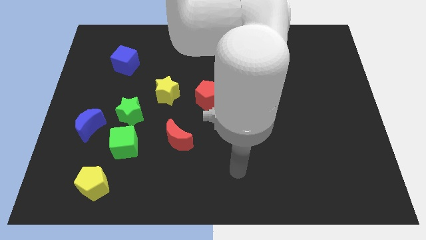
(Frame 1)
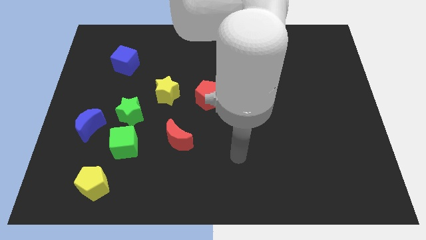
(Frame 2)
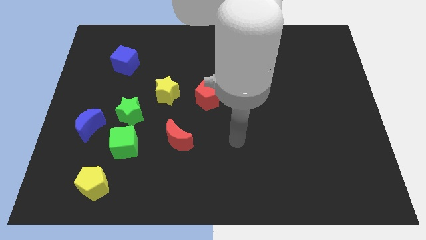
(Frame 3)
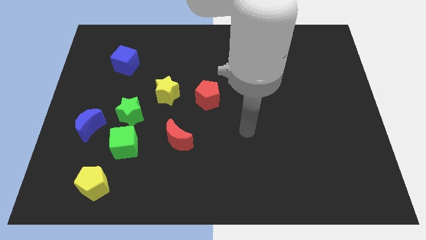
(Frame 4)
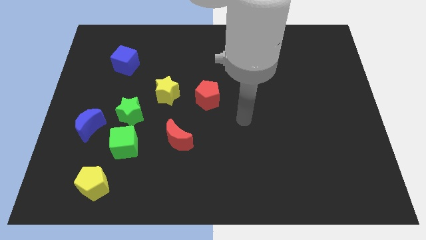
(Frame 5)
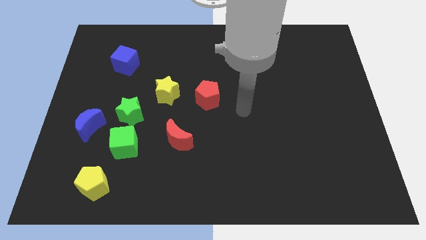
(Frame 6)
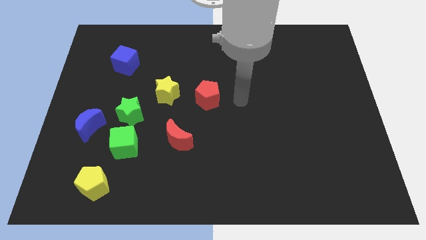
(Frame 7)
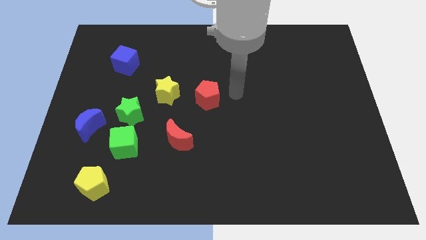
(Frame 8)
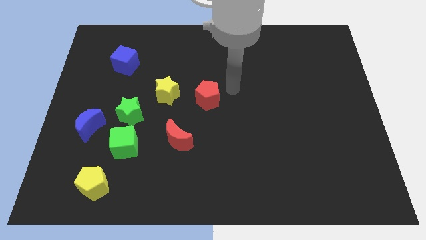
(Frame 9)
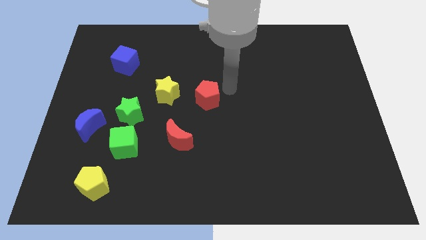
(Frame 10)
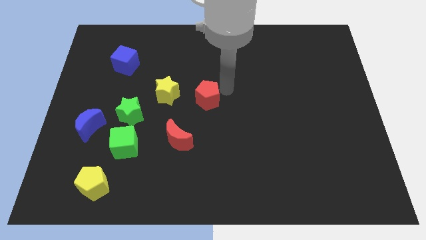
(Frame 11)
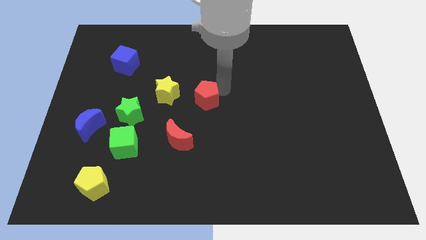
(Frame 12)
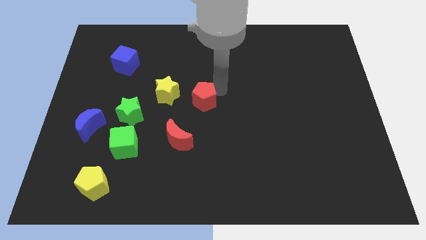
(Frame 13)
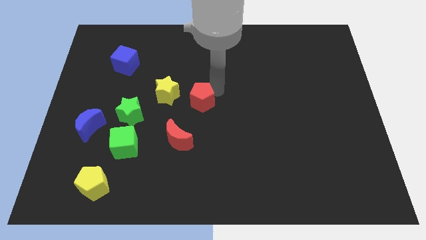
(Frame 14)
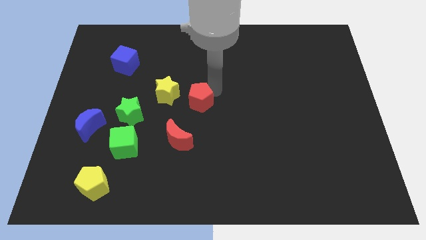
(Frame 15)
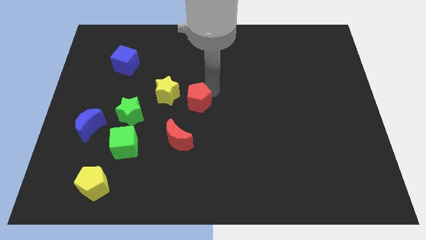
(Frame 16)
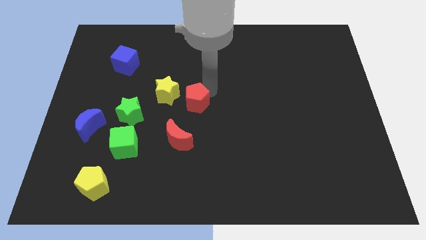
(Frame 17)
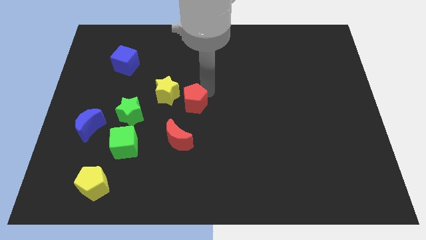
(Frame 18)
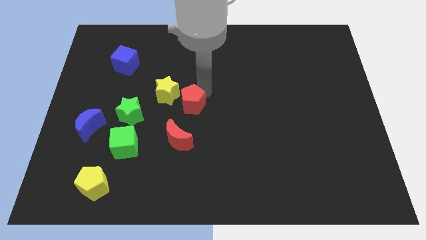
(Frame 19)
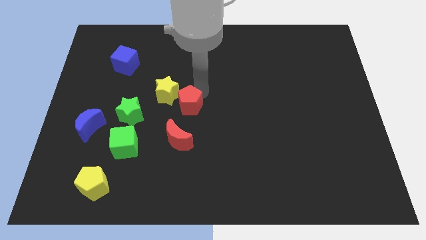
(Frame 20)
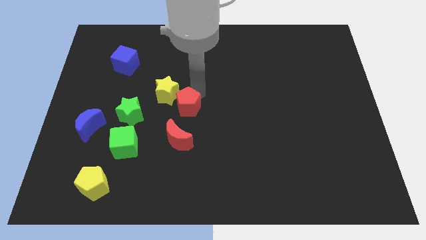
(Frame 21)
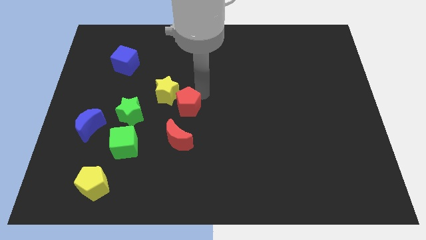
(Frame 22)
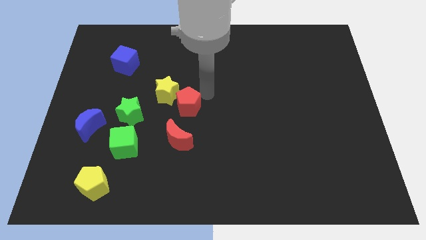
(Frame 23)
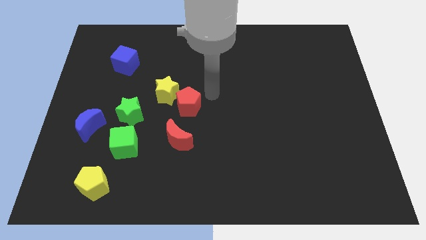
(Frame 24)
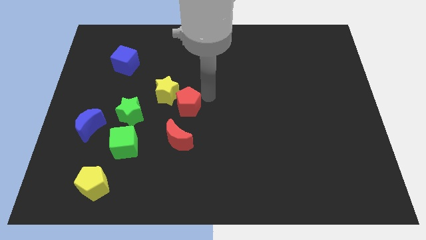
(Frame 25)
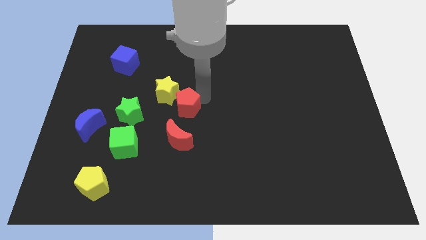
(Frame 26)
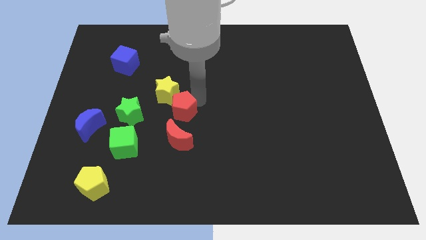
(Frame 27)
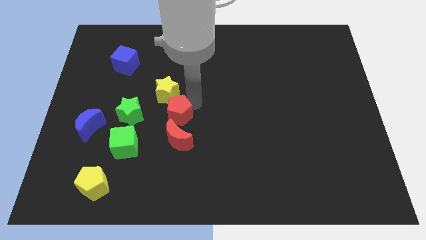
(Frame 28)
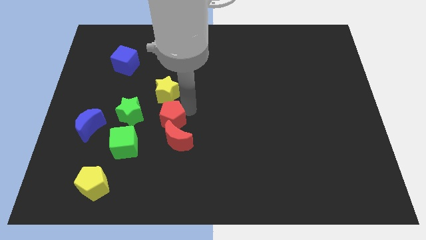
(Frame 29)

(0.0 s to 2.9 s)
move the red pentagon left slightly

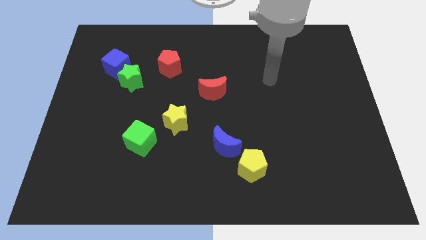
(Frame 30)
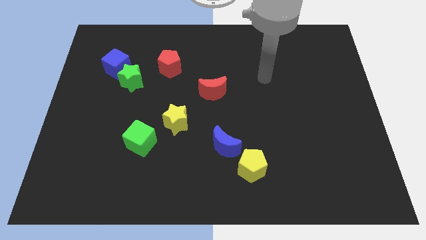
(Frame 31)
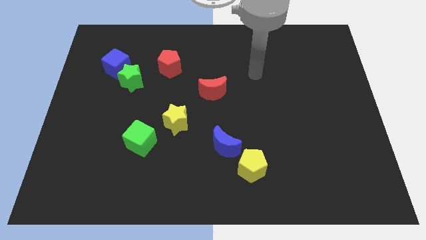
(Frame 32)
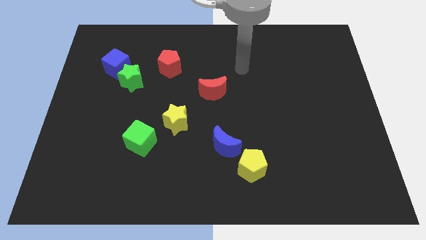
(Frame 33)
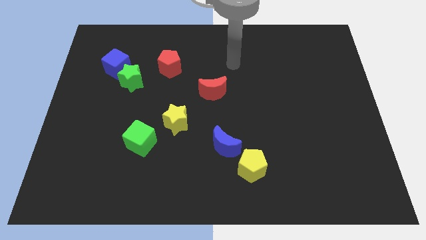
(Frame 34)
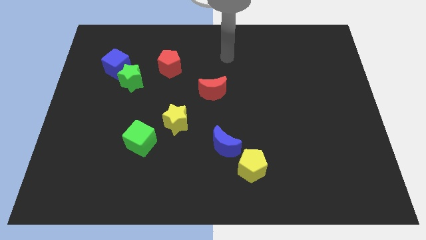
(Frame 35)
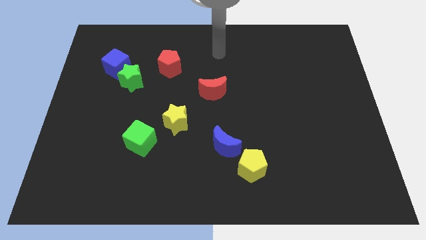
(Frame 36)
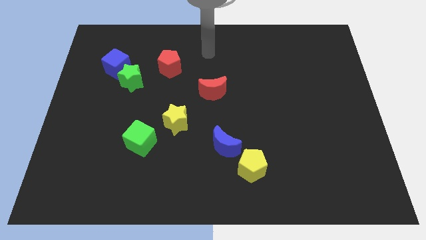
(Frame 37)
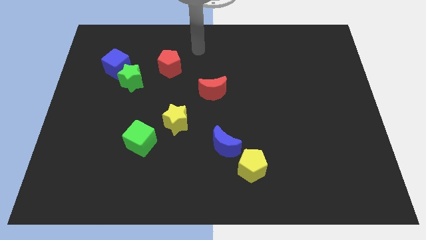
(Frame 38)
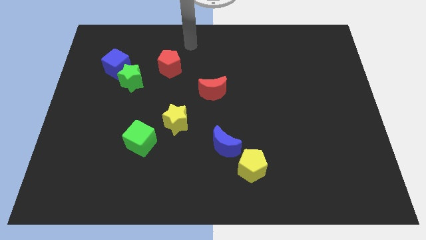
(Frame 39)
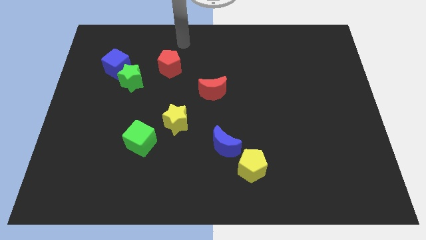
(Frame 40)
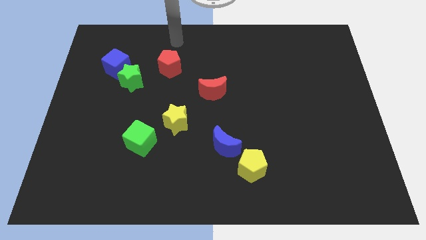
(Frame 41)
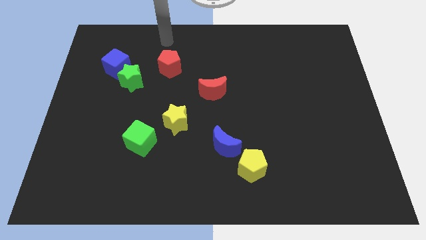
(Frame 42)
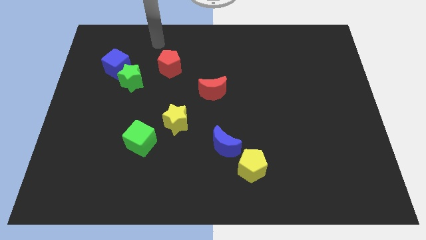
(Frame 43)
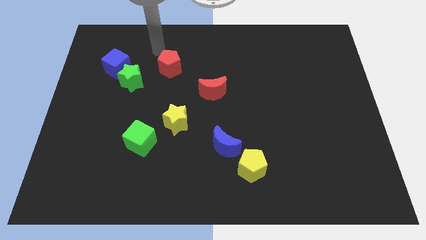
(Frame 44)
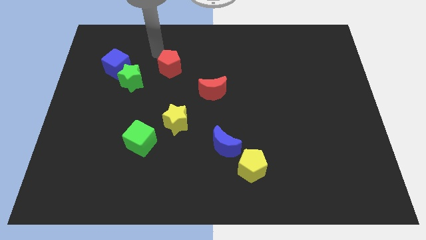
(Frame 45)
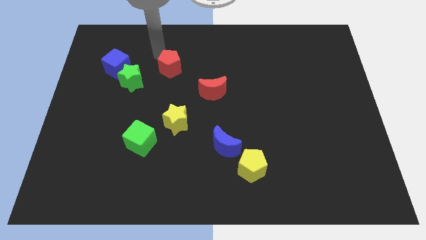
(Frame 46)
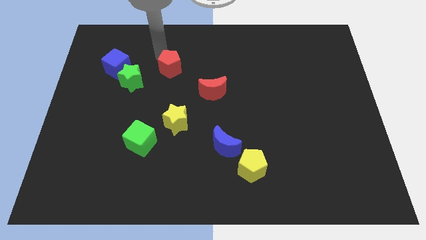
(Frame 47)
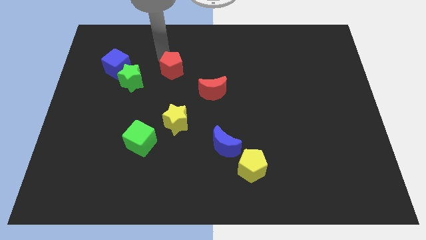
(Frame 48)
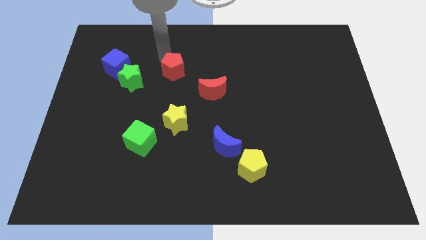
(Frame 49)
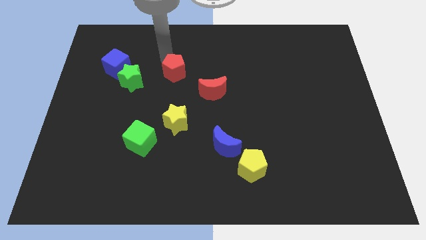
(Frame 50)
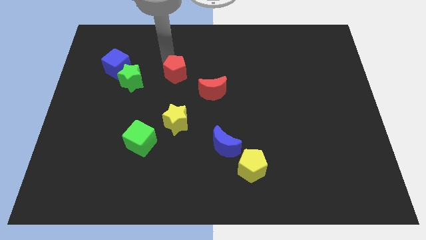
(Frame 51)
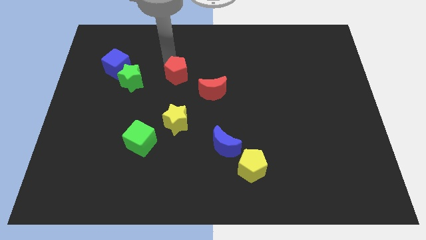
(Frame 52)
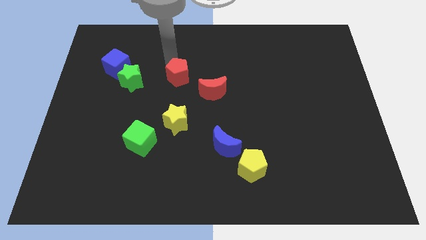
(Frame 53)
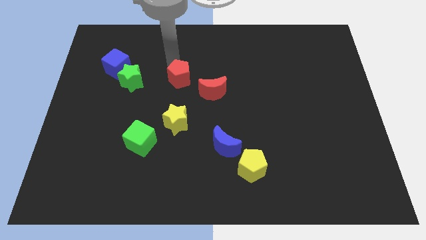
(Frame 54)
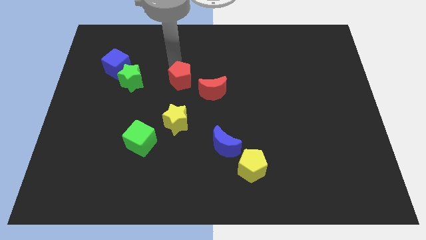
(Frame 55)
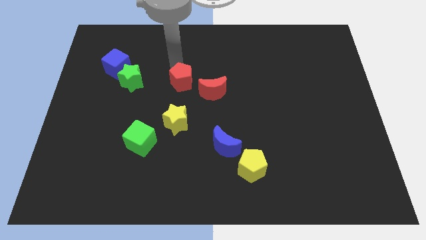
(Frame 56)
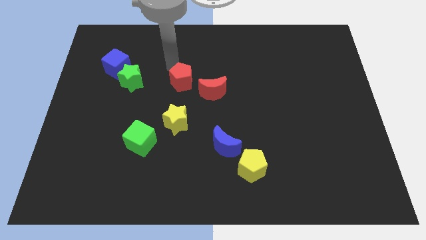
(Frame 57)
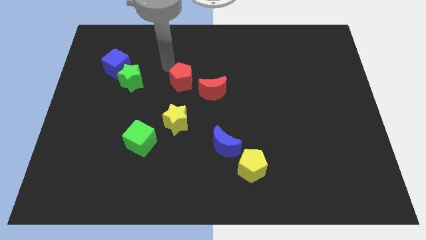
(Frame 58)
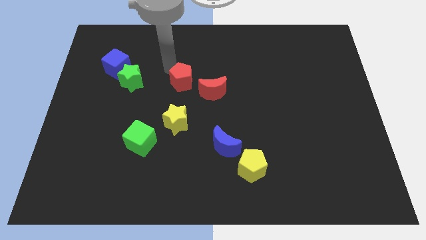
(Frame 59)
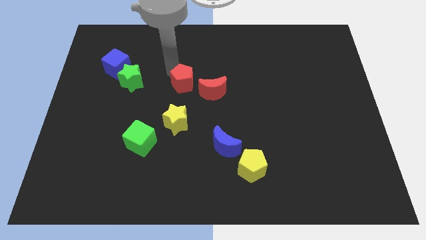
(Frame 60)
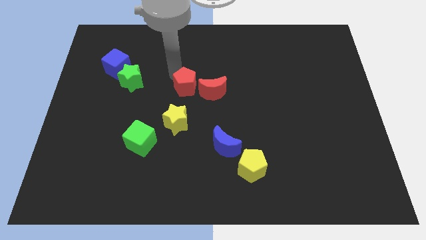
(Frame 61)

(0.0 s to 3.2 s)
slide the red pentagon a bit downwards and then to the right

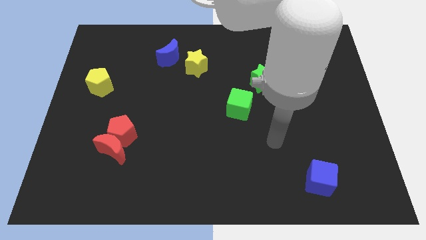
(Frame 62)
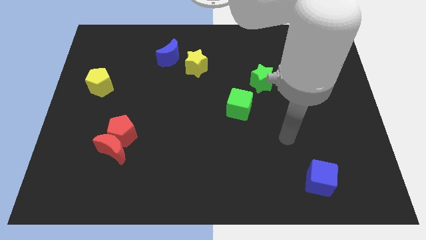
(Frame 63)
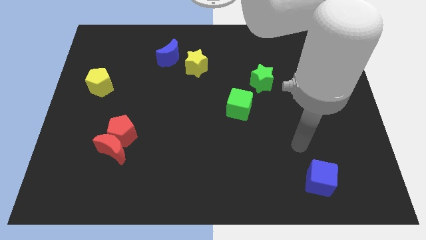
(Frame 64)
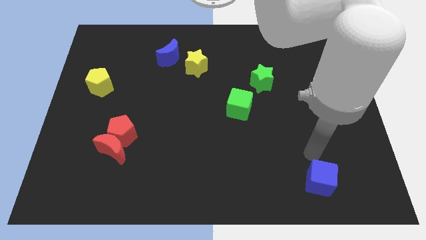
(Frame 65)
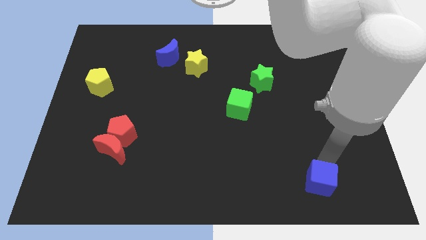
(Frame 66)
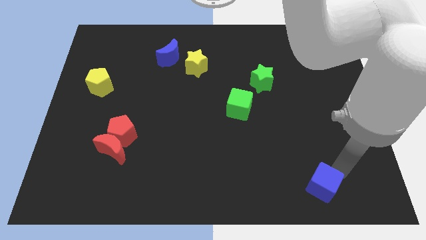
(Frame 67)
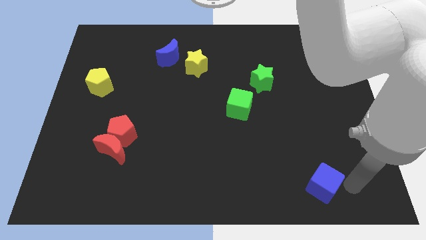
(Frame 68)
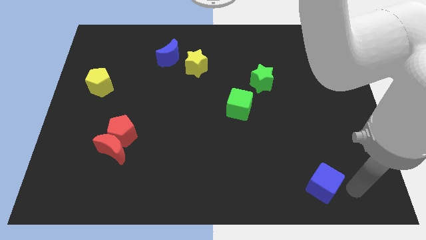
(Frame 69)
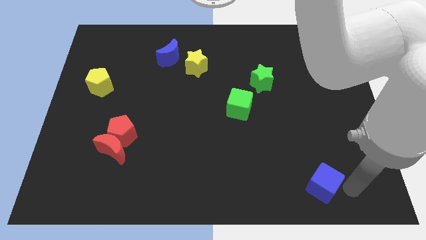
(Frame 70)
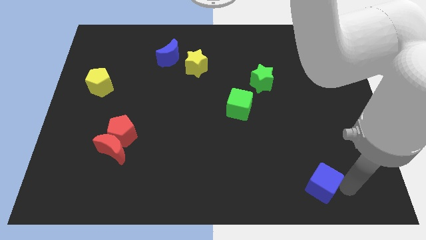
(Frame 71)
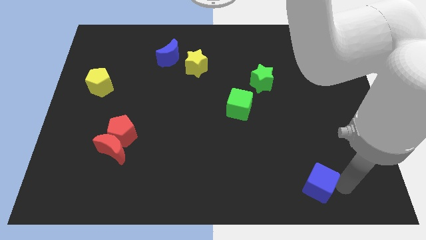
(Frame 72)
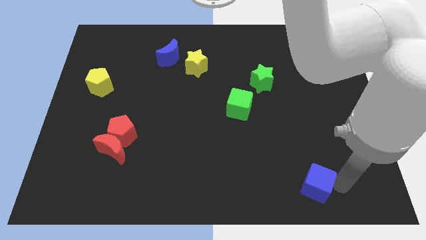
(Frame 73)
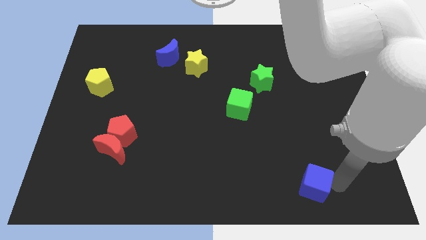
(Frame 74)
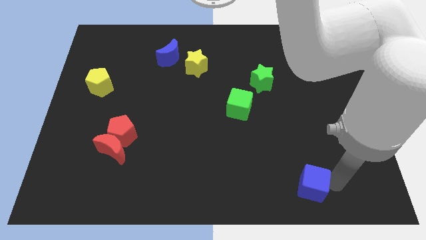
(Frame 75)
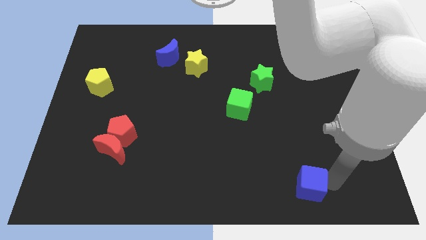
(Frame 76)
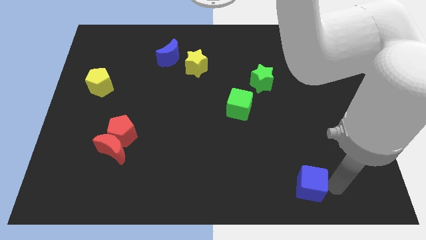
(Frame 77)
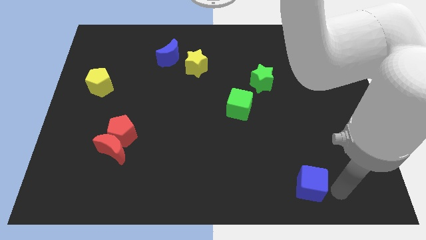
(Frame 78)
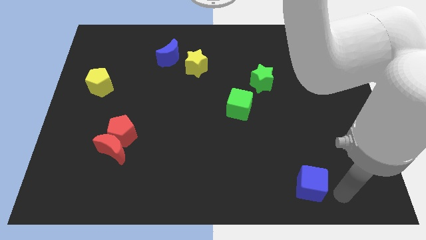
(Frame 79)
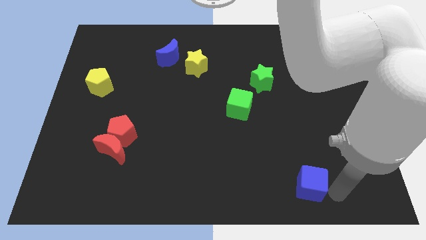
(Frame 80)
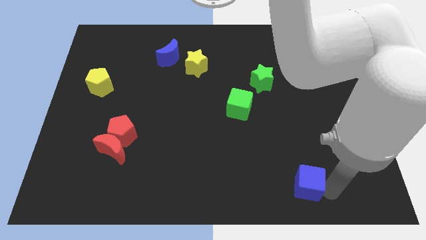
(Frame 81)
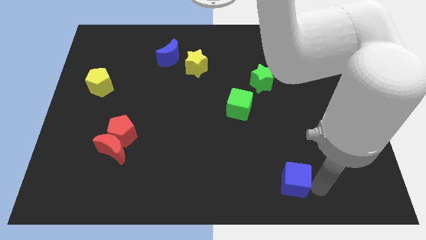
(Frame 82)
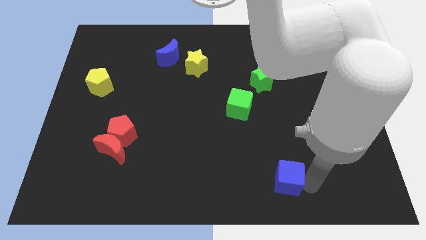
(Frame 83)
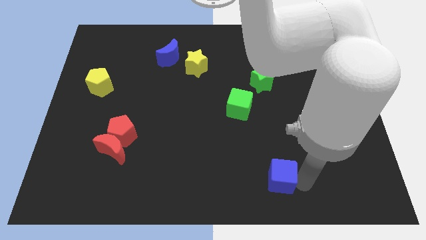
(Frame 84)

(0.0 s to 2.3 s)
move the blue cube to the left slightly

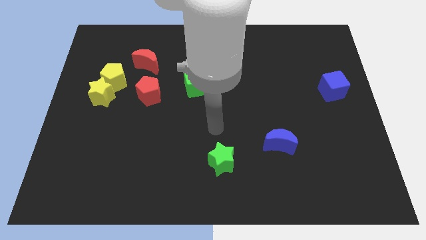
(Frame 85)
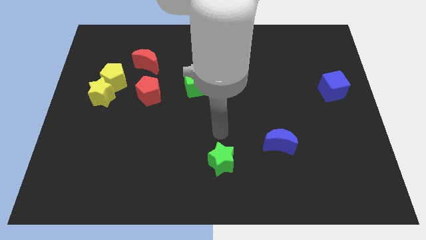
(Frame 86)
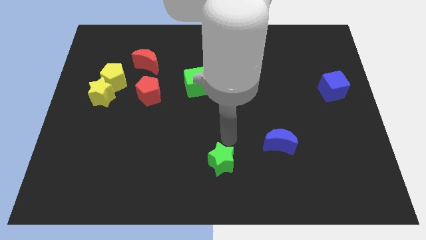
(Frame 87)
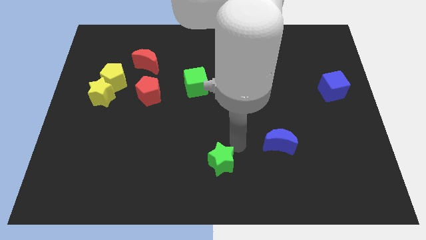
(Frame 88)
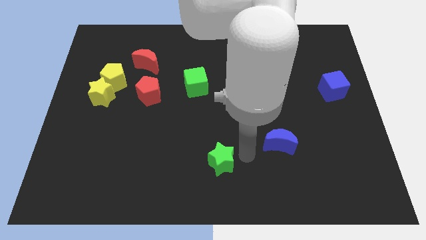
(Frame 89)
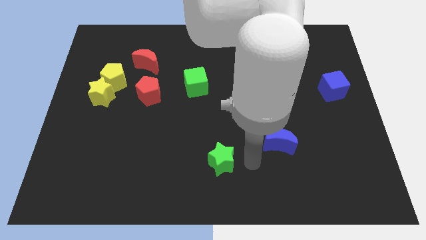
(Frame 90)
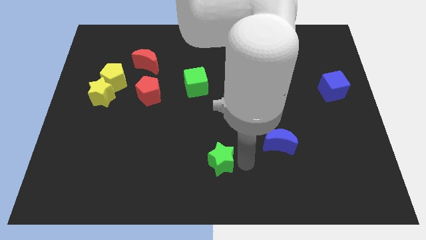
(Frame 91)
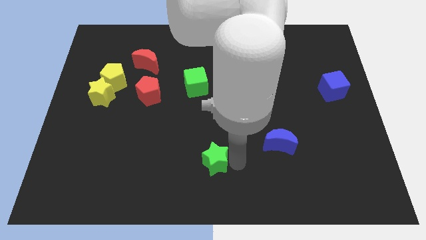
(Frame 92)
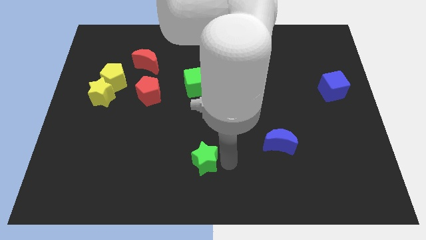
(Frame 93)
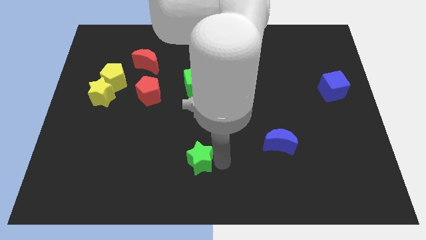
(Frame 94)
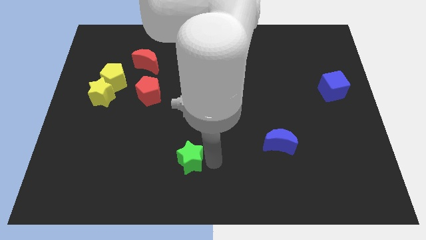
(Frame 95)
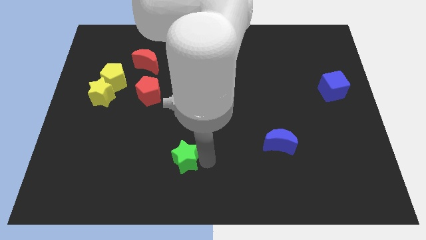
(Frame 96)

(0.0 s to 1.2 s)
slide the green star to the left a bit
